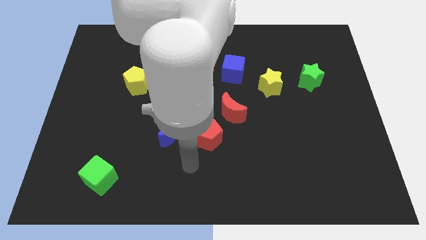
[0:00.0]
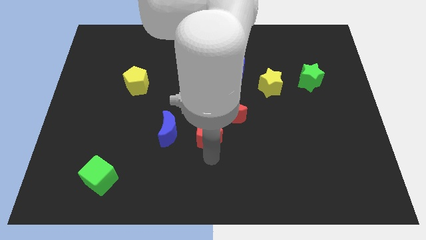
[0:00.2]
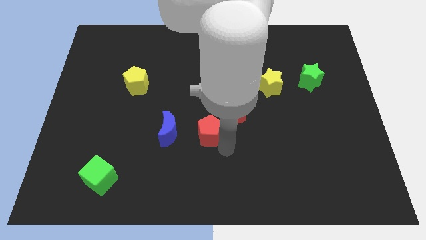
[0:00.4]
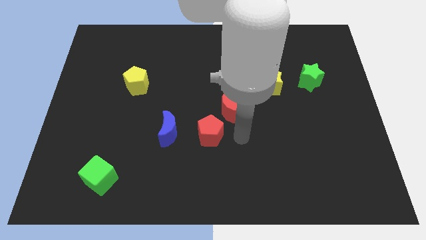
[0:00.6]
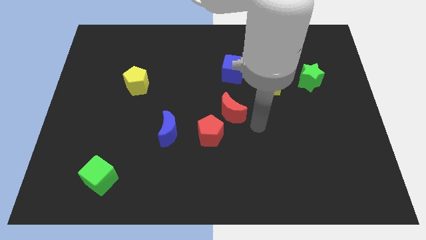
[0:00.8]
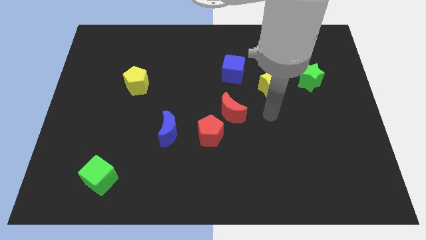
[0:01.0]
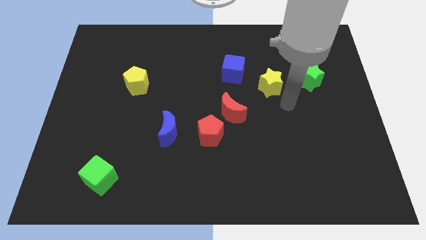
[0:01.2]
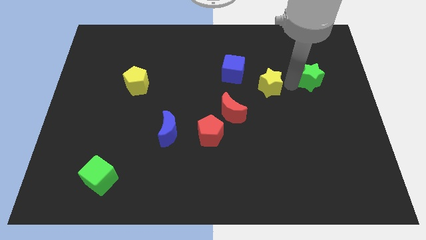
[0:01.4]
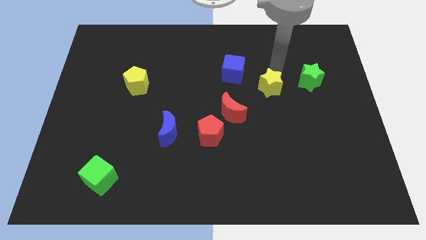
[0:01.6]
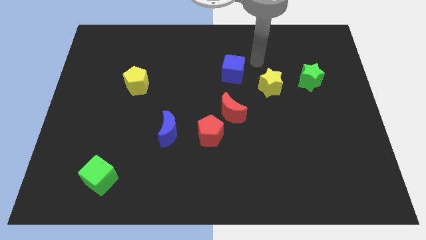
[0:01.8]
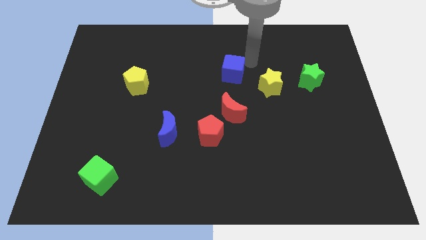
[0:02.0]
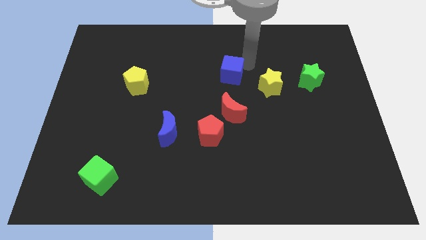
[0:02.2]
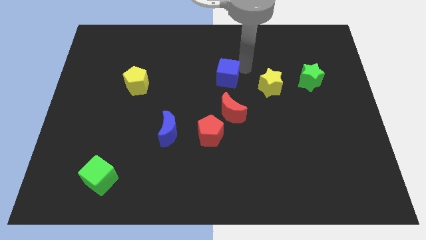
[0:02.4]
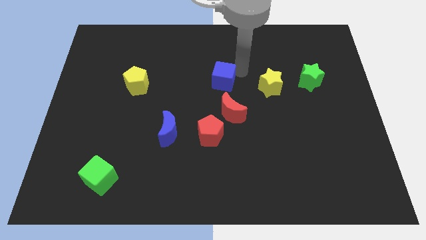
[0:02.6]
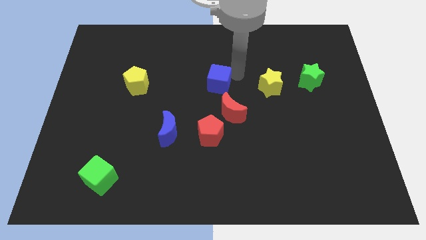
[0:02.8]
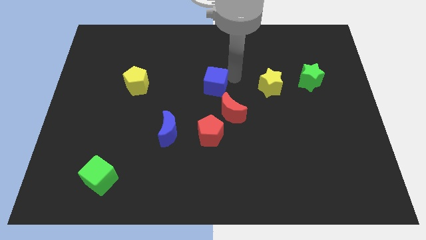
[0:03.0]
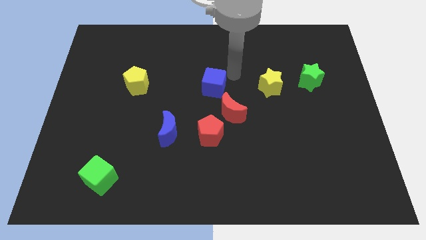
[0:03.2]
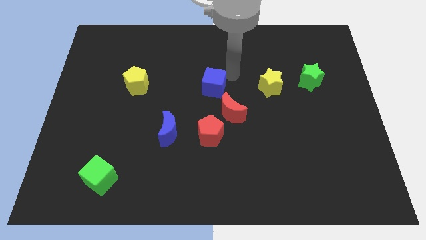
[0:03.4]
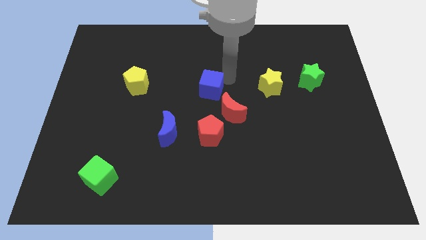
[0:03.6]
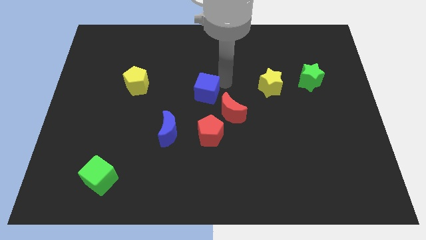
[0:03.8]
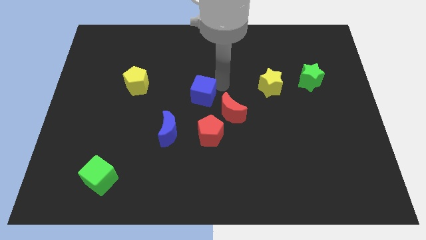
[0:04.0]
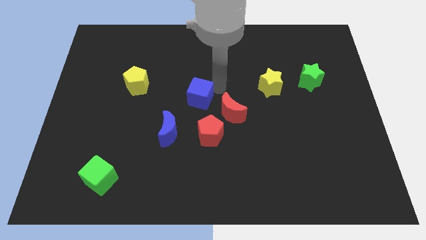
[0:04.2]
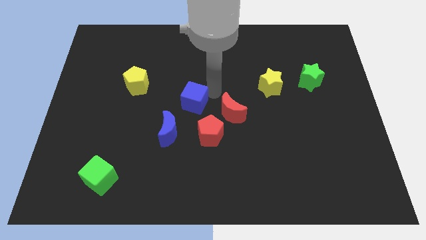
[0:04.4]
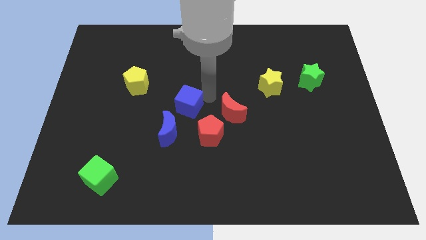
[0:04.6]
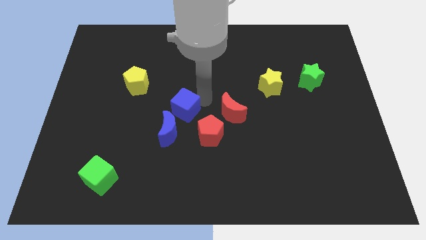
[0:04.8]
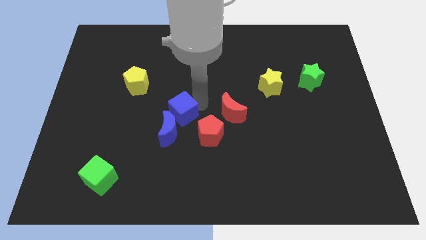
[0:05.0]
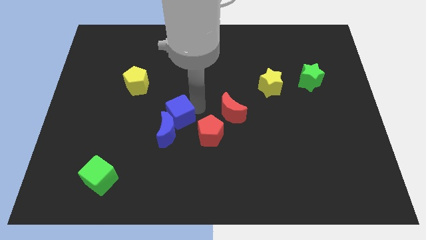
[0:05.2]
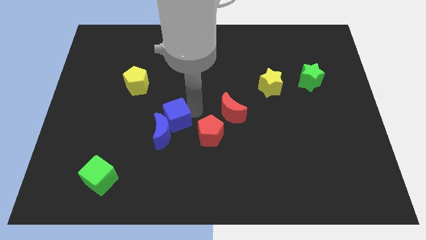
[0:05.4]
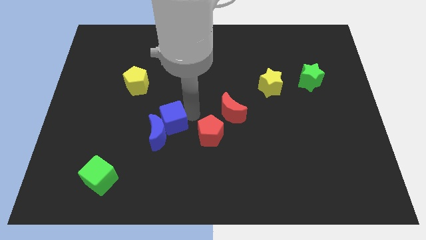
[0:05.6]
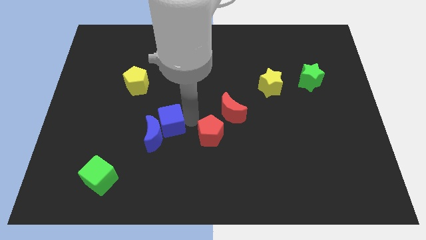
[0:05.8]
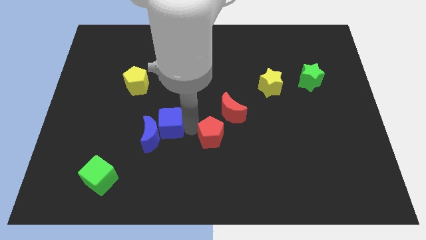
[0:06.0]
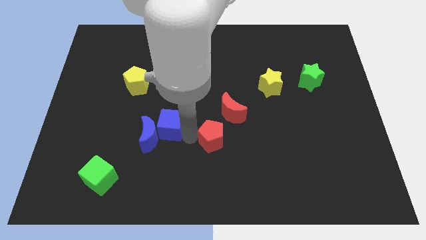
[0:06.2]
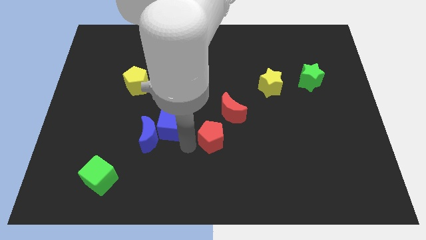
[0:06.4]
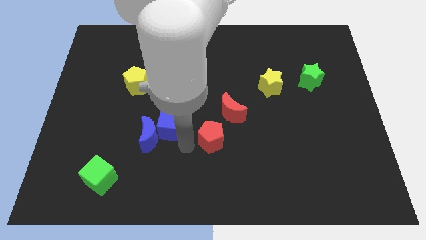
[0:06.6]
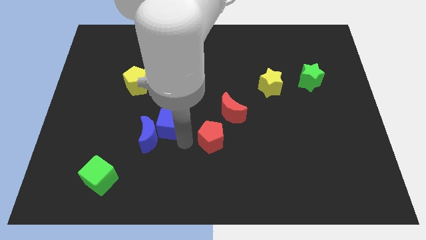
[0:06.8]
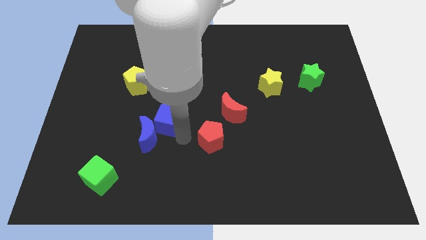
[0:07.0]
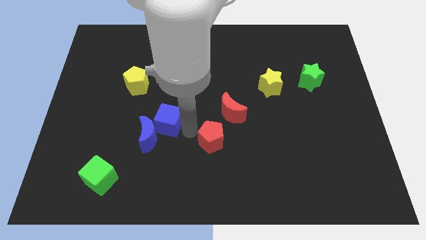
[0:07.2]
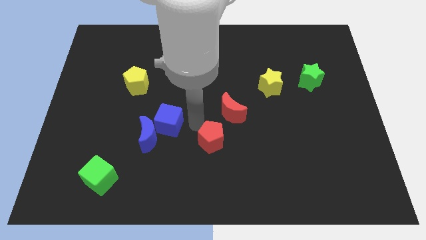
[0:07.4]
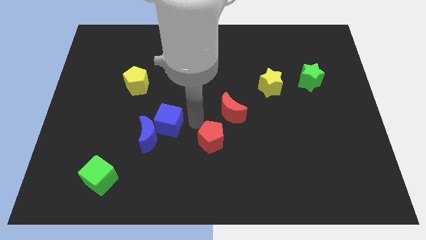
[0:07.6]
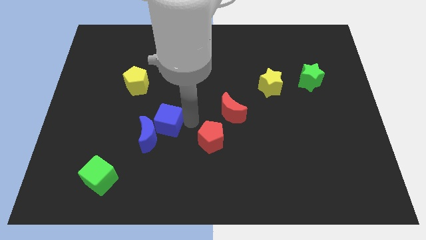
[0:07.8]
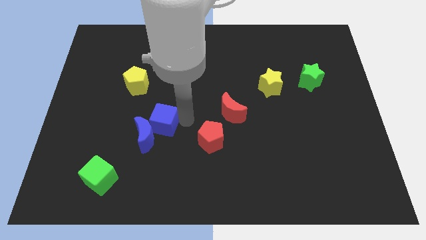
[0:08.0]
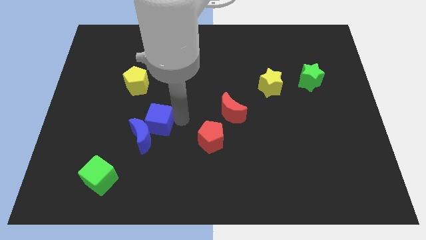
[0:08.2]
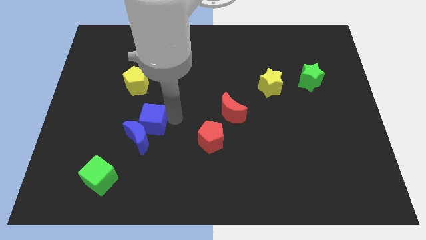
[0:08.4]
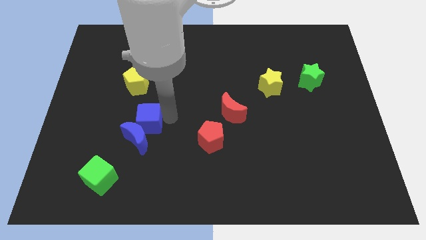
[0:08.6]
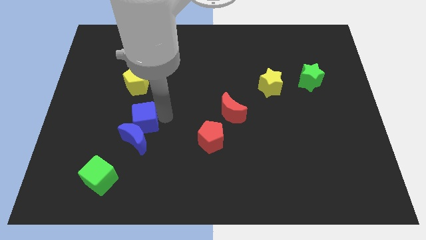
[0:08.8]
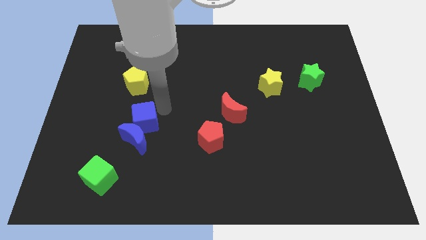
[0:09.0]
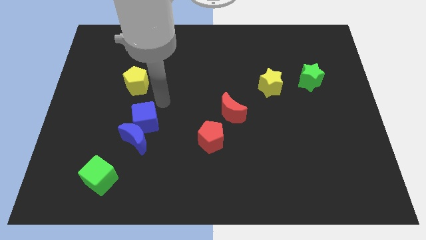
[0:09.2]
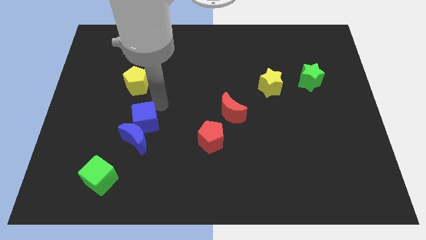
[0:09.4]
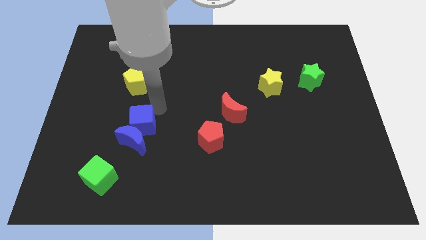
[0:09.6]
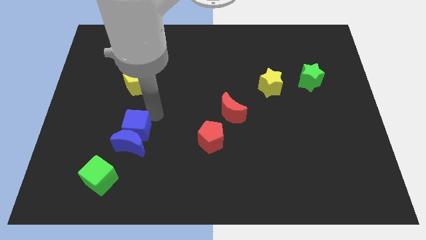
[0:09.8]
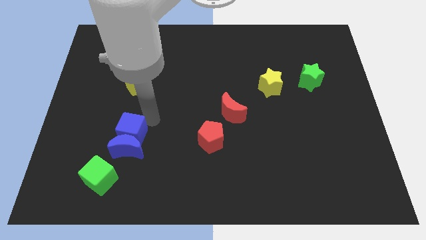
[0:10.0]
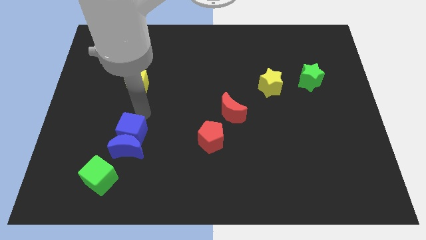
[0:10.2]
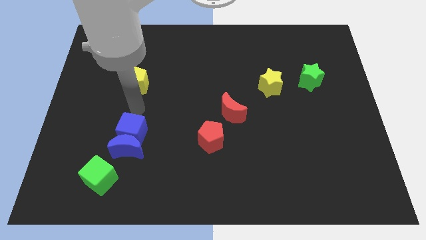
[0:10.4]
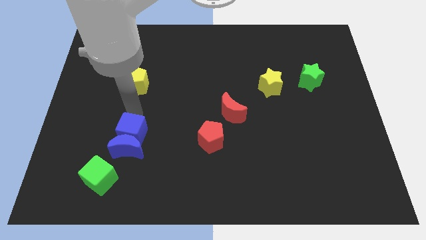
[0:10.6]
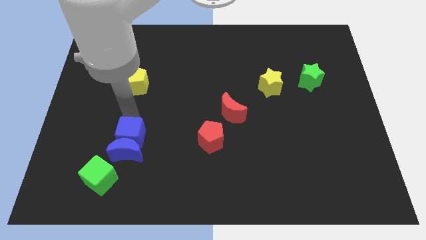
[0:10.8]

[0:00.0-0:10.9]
move the blue cube to the top right of the green cube

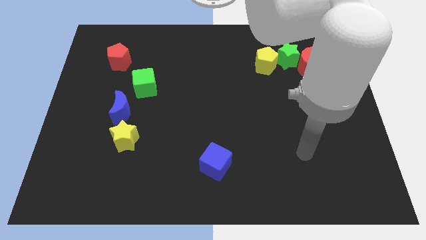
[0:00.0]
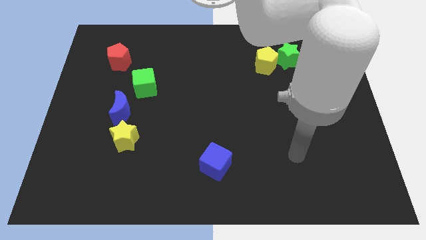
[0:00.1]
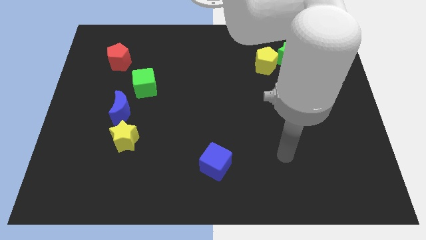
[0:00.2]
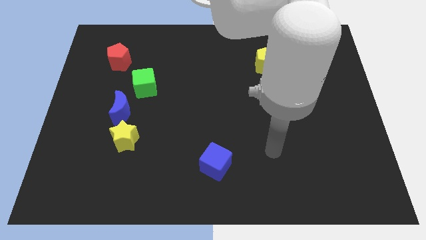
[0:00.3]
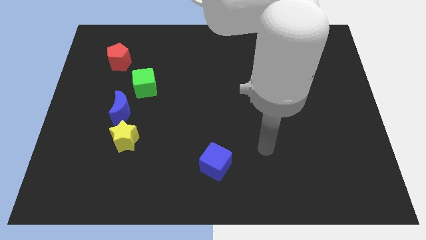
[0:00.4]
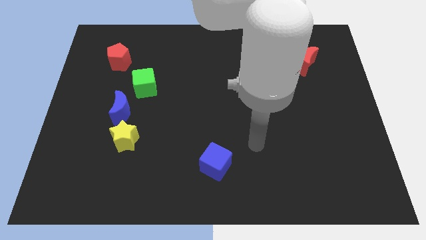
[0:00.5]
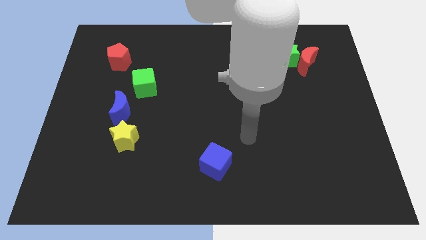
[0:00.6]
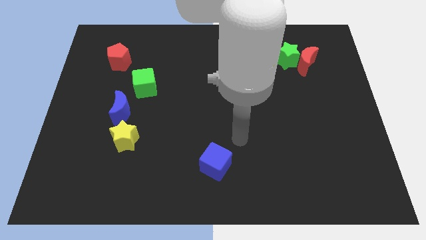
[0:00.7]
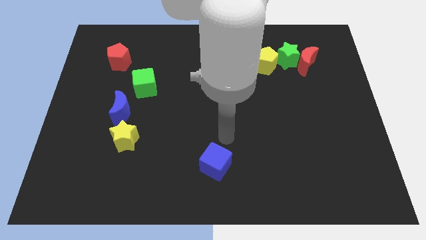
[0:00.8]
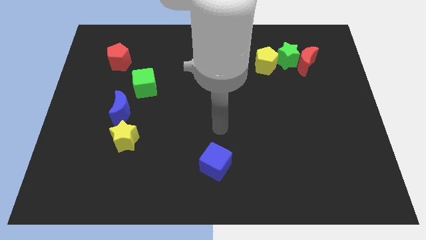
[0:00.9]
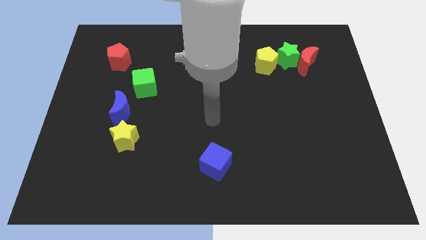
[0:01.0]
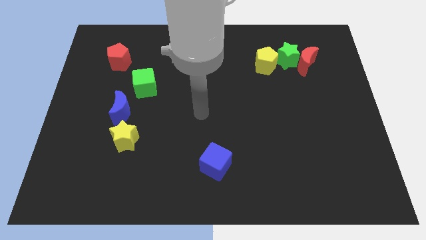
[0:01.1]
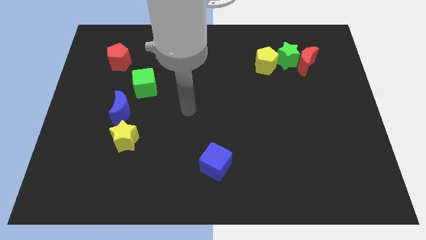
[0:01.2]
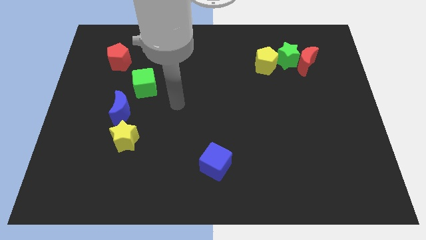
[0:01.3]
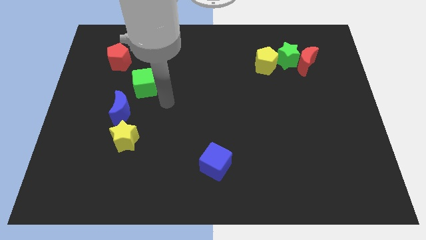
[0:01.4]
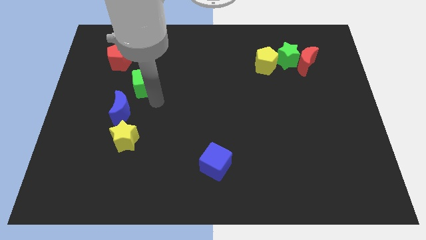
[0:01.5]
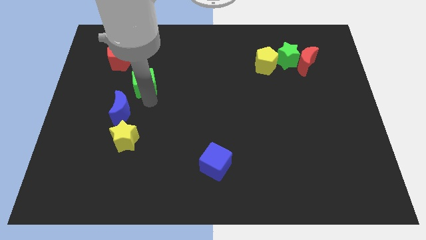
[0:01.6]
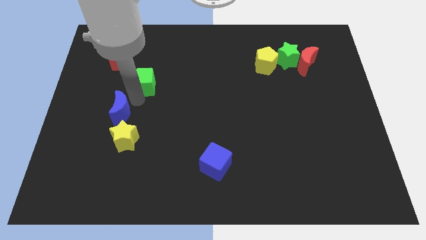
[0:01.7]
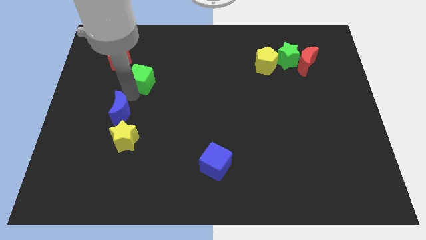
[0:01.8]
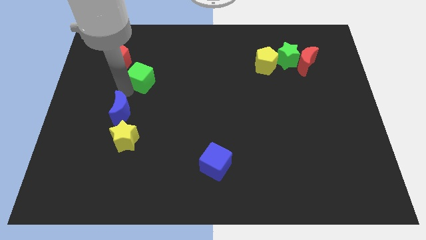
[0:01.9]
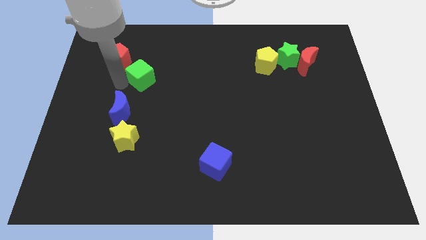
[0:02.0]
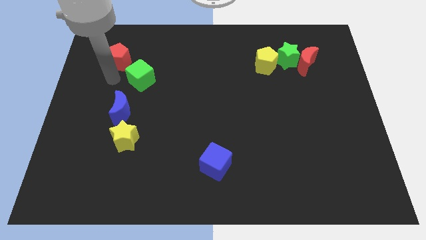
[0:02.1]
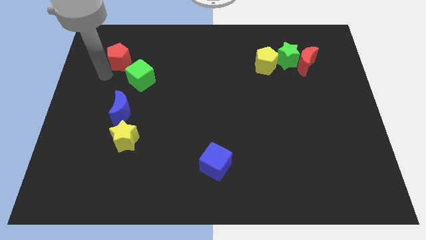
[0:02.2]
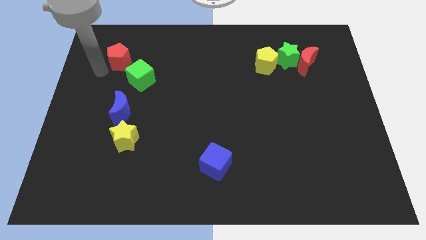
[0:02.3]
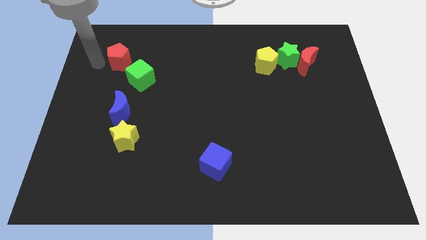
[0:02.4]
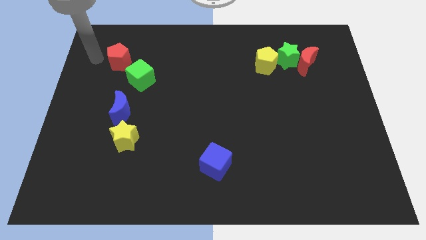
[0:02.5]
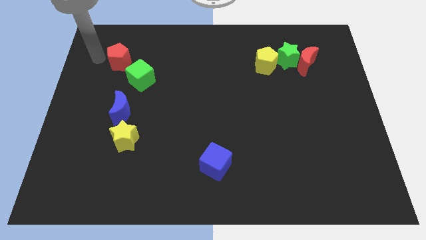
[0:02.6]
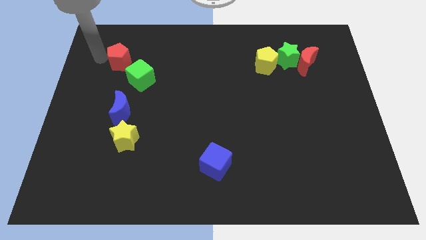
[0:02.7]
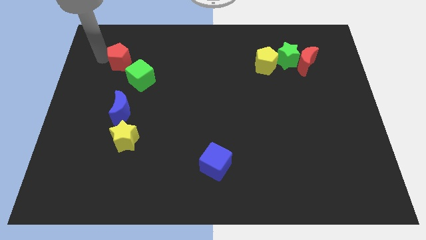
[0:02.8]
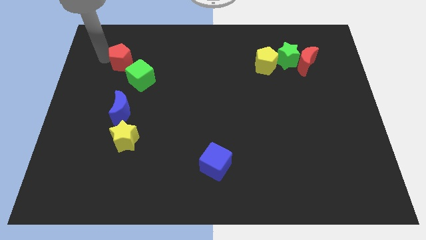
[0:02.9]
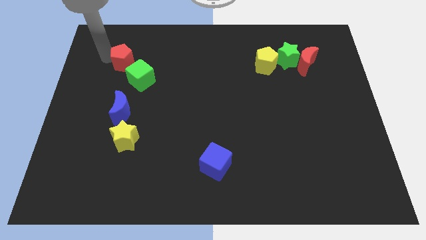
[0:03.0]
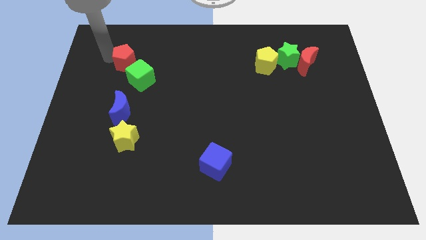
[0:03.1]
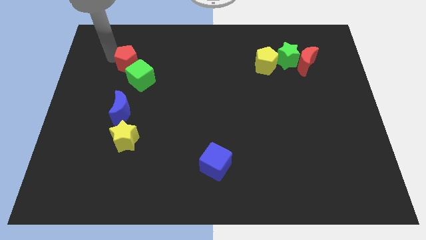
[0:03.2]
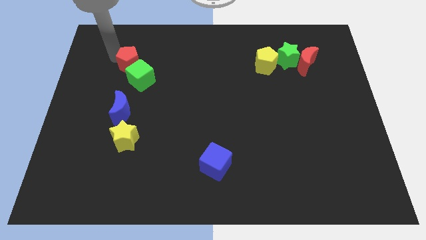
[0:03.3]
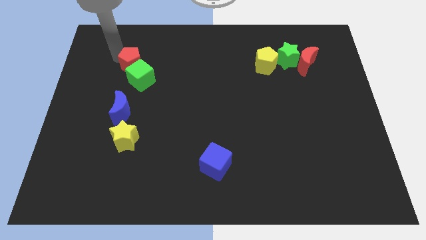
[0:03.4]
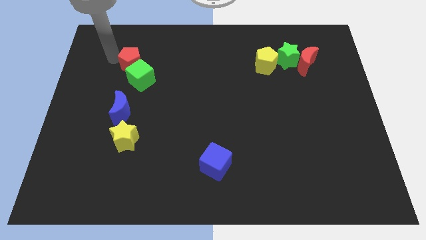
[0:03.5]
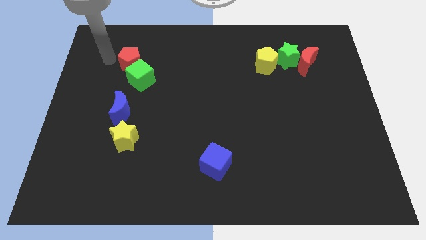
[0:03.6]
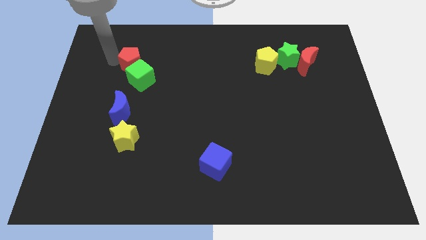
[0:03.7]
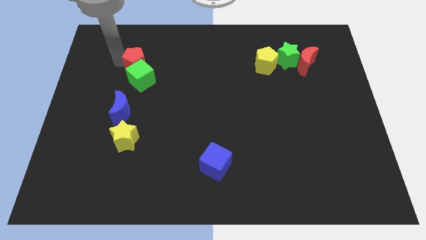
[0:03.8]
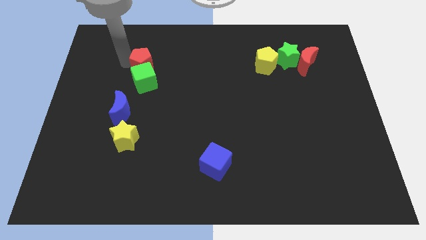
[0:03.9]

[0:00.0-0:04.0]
push the red pentagon to the top right of the green cube
